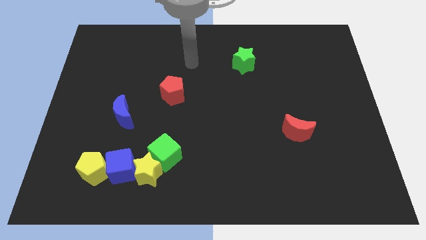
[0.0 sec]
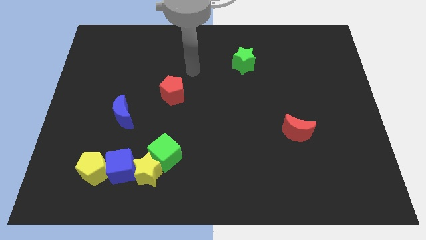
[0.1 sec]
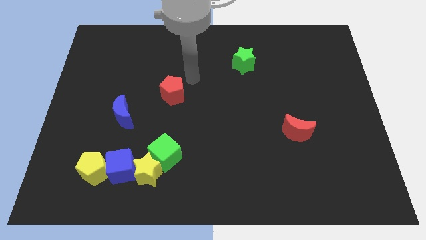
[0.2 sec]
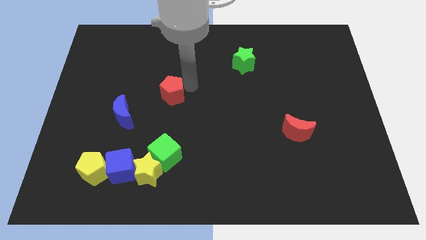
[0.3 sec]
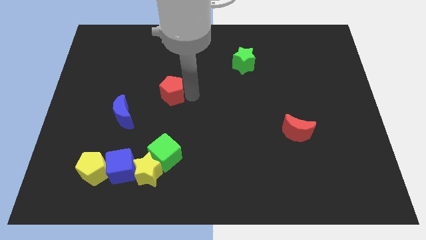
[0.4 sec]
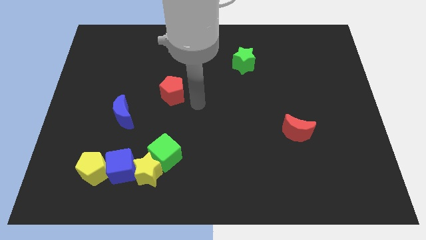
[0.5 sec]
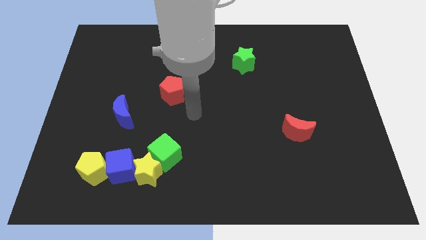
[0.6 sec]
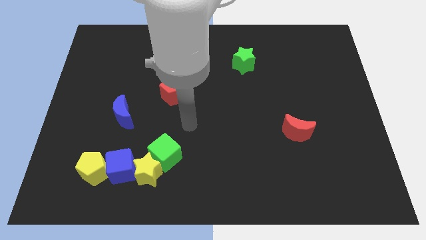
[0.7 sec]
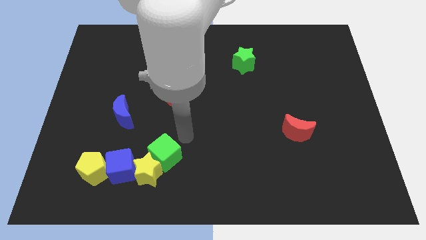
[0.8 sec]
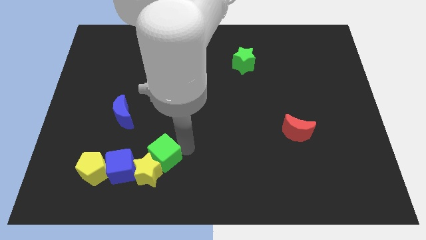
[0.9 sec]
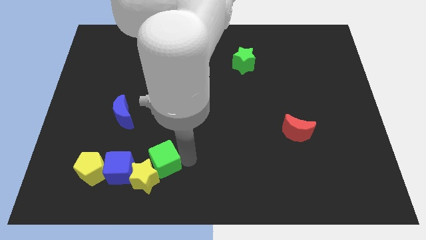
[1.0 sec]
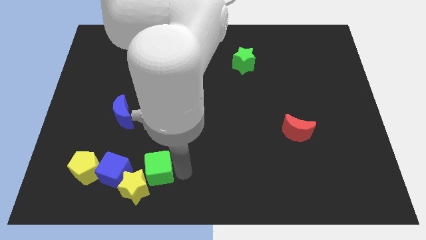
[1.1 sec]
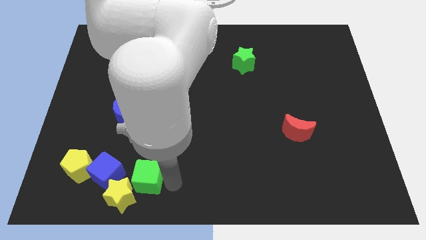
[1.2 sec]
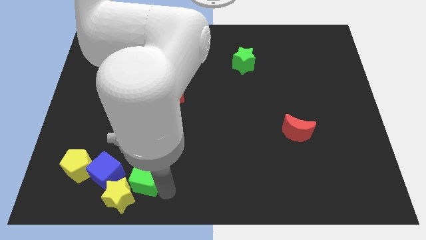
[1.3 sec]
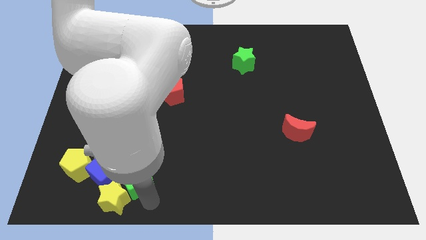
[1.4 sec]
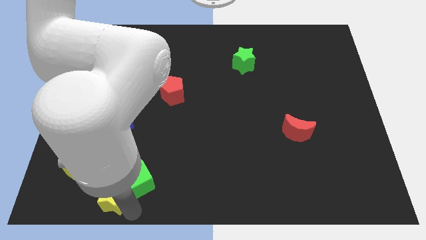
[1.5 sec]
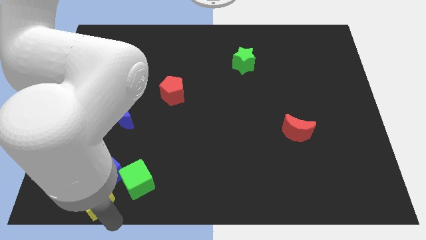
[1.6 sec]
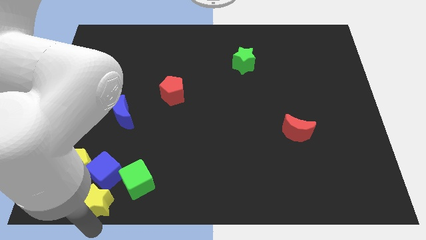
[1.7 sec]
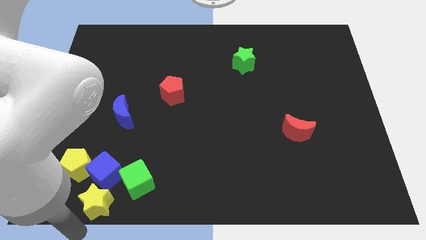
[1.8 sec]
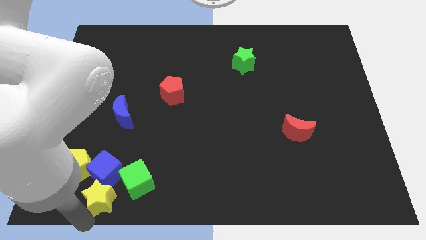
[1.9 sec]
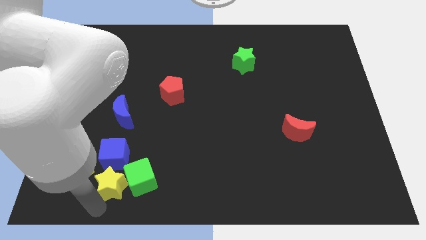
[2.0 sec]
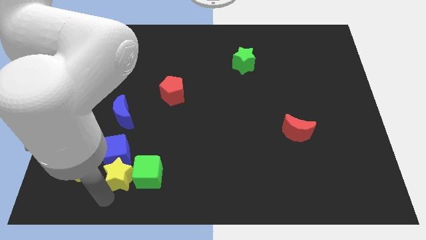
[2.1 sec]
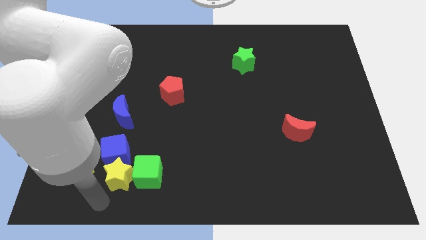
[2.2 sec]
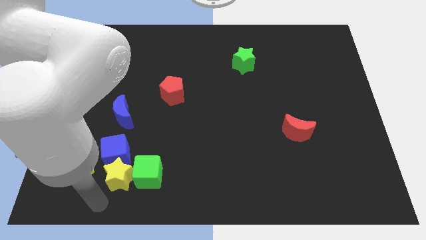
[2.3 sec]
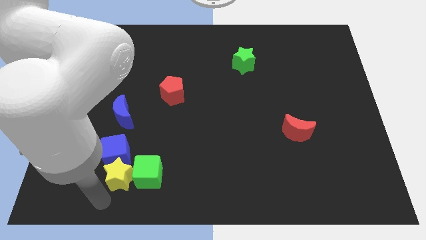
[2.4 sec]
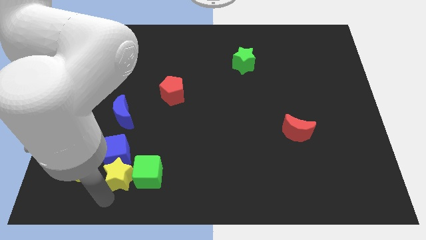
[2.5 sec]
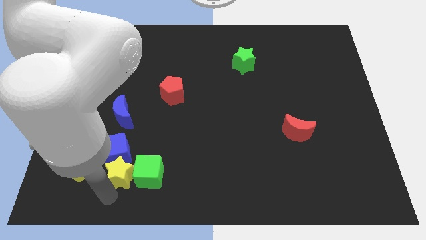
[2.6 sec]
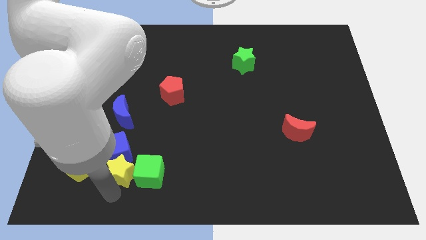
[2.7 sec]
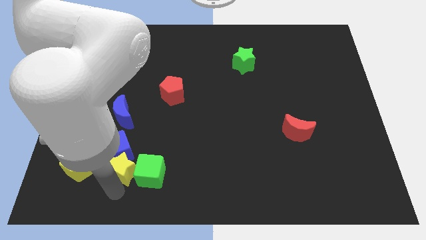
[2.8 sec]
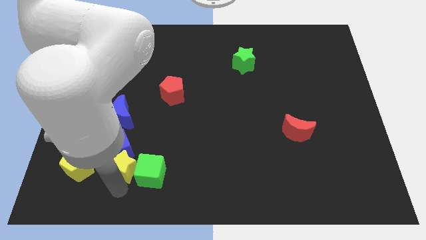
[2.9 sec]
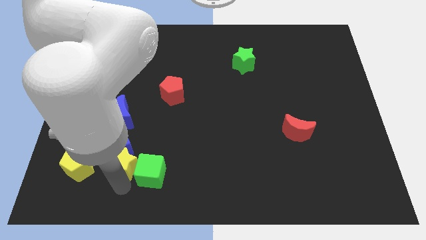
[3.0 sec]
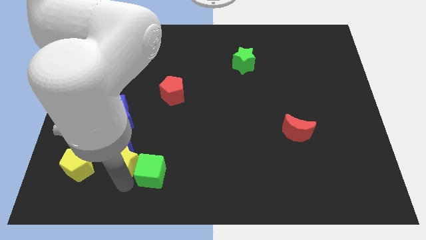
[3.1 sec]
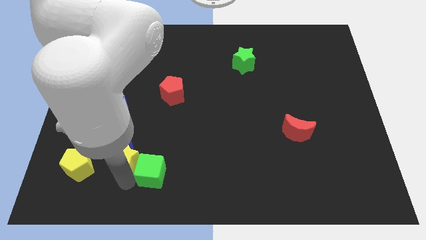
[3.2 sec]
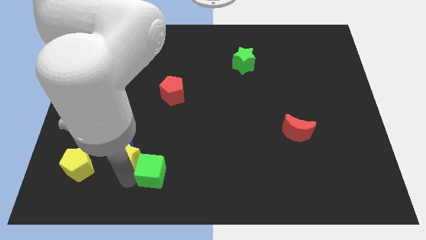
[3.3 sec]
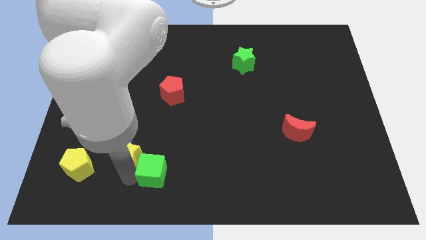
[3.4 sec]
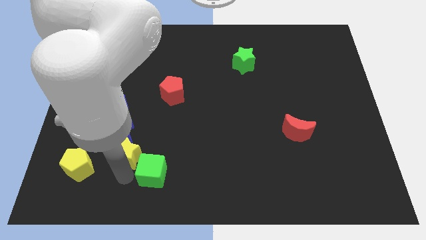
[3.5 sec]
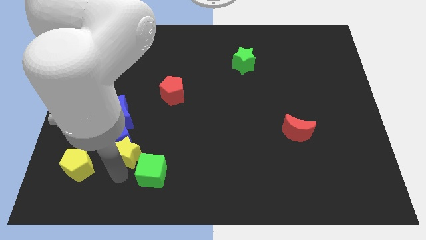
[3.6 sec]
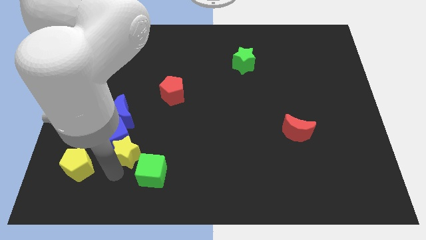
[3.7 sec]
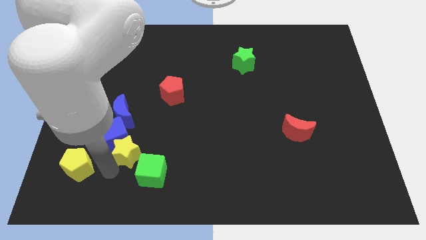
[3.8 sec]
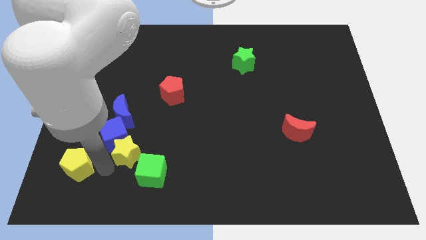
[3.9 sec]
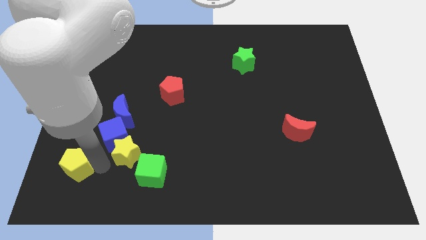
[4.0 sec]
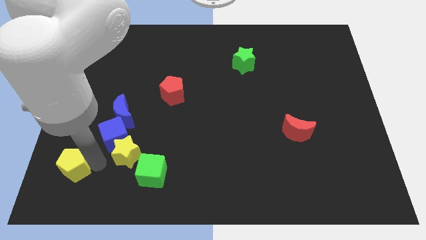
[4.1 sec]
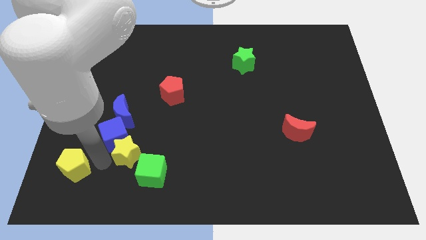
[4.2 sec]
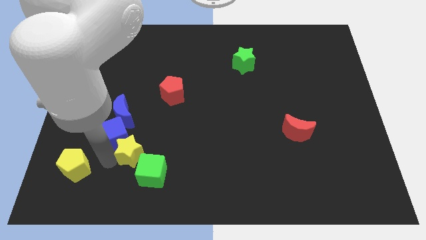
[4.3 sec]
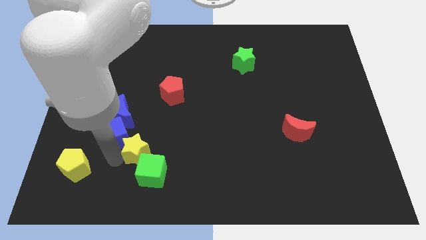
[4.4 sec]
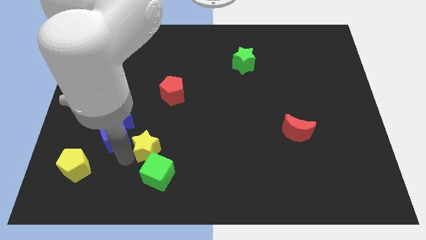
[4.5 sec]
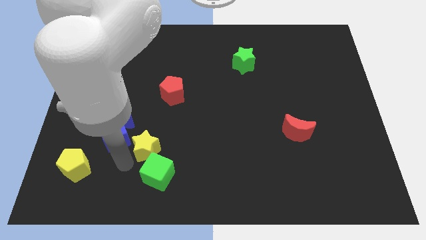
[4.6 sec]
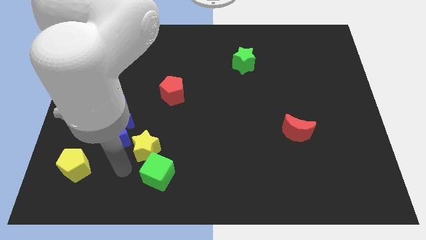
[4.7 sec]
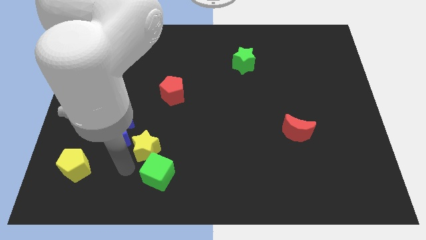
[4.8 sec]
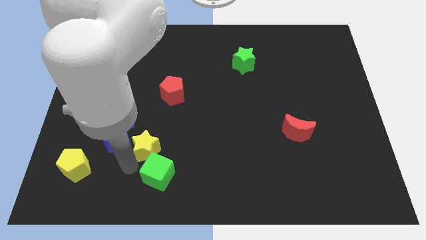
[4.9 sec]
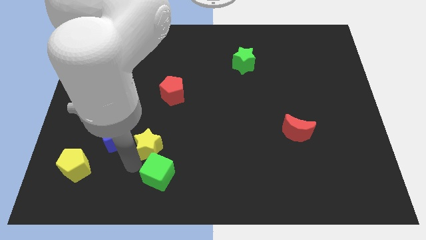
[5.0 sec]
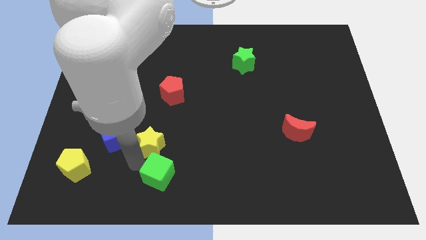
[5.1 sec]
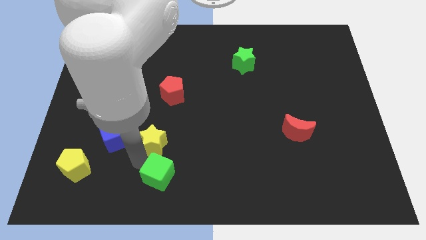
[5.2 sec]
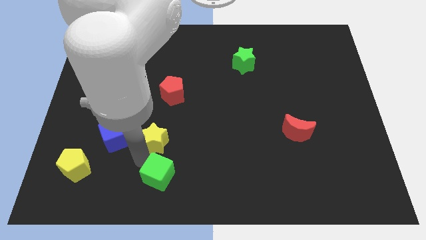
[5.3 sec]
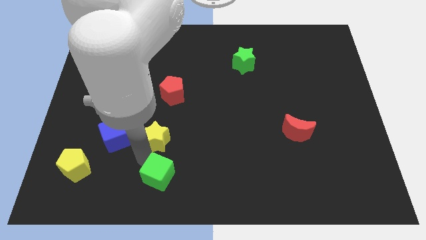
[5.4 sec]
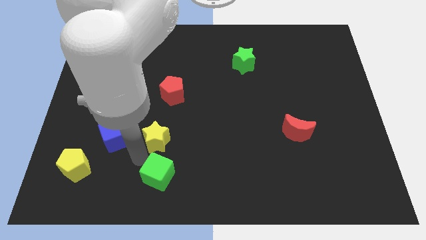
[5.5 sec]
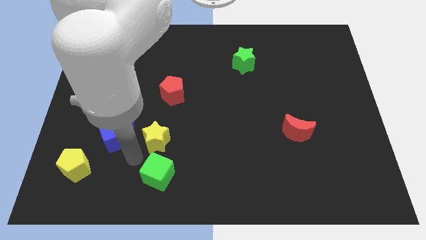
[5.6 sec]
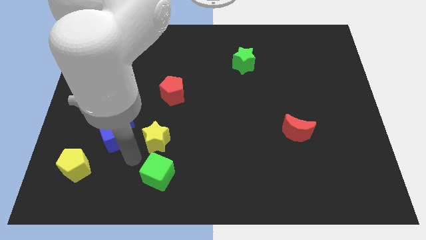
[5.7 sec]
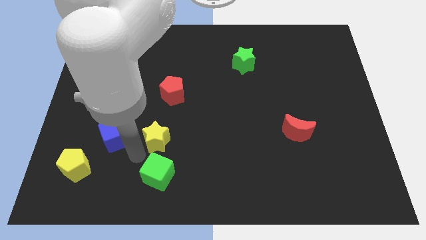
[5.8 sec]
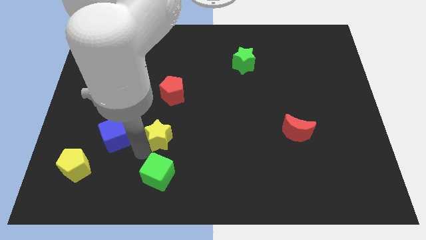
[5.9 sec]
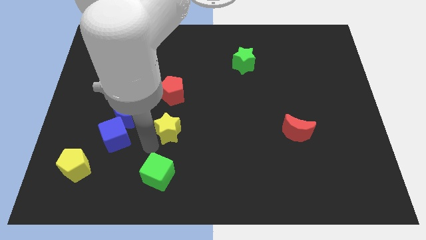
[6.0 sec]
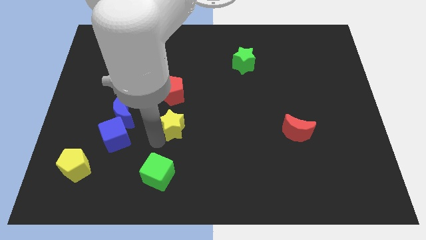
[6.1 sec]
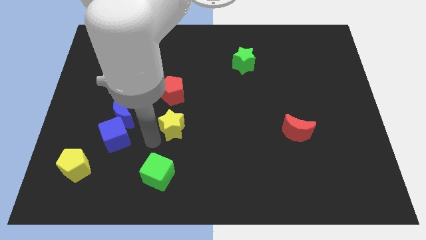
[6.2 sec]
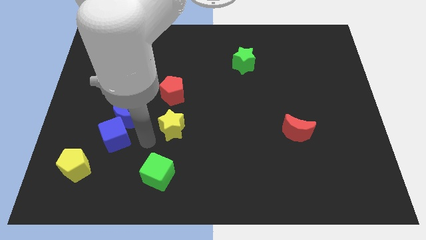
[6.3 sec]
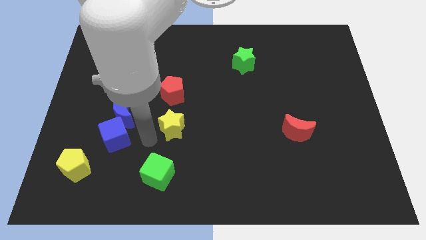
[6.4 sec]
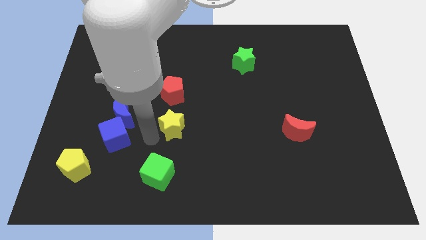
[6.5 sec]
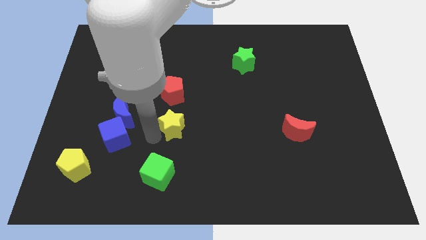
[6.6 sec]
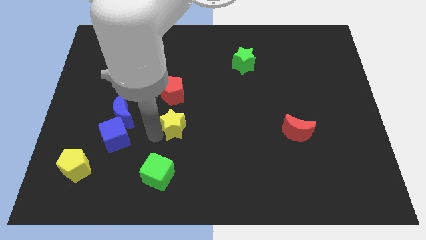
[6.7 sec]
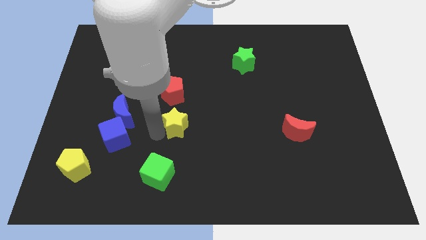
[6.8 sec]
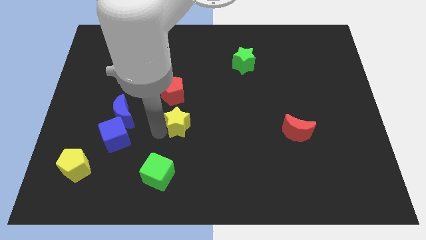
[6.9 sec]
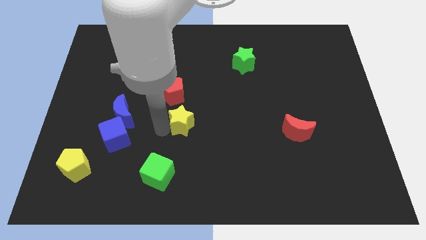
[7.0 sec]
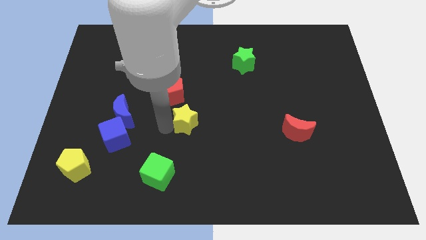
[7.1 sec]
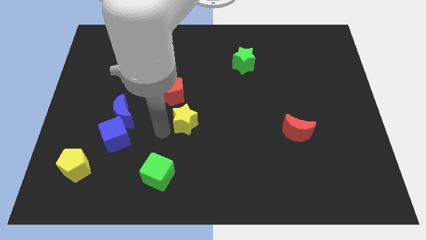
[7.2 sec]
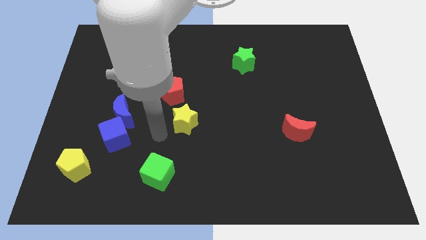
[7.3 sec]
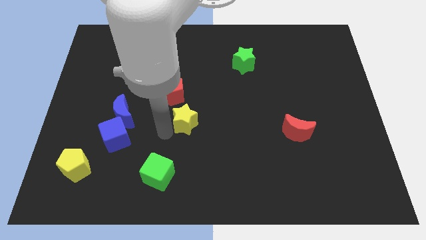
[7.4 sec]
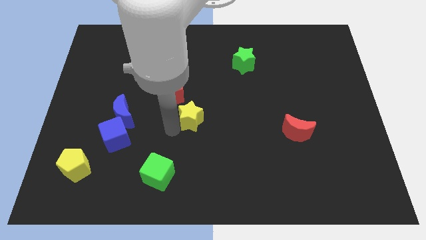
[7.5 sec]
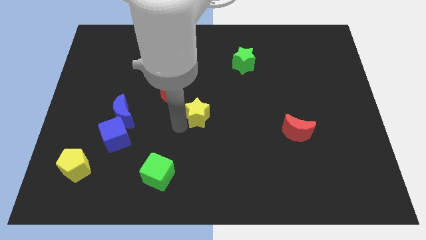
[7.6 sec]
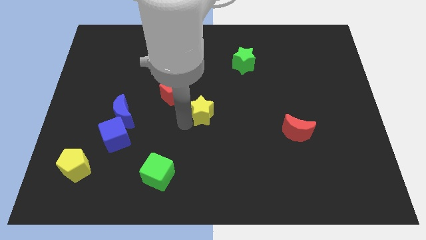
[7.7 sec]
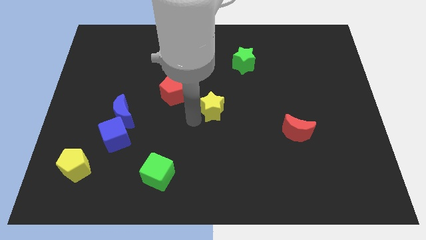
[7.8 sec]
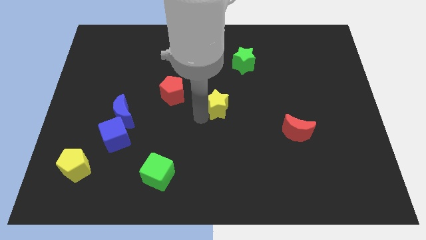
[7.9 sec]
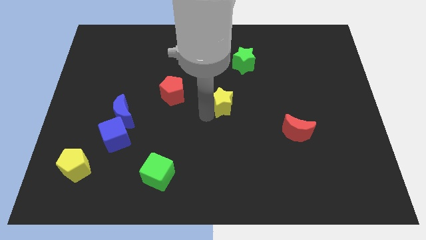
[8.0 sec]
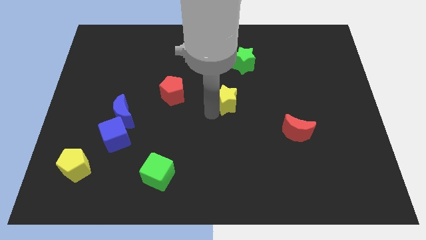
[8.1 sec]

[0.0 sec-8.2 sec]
slide the yellow star below the green star
